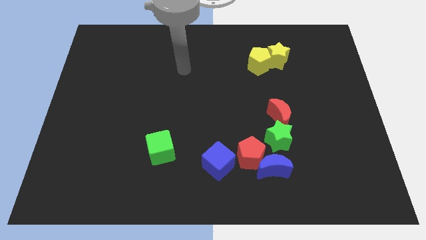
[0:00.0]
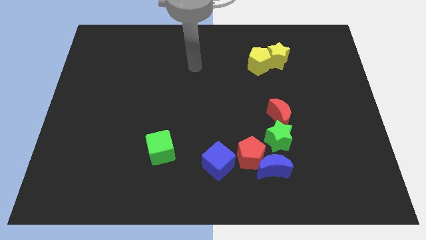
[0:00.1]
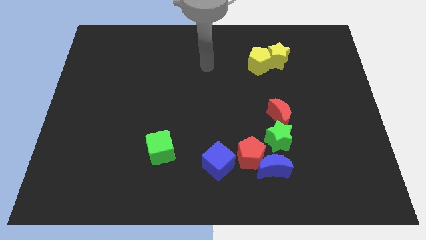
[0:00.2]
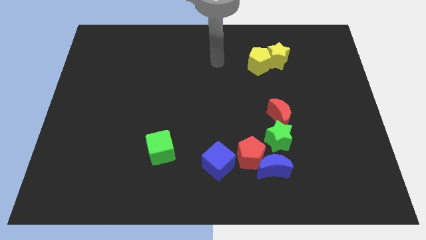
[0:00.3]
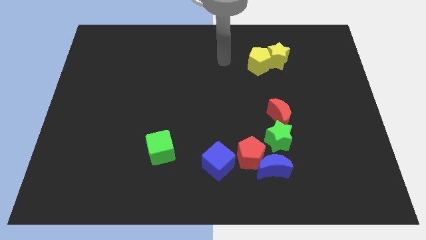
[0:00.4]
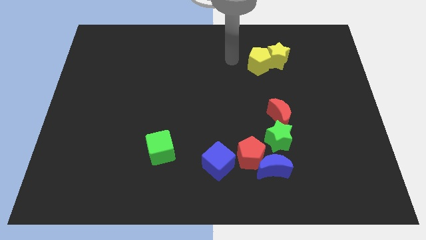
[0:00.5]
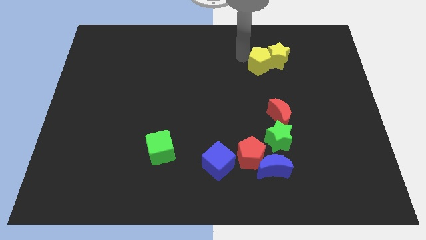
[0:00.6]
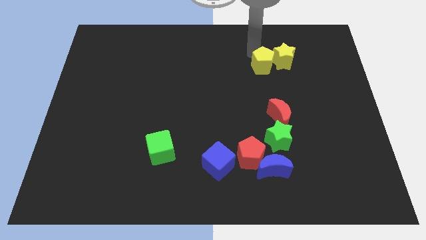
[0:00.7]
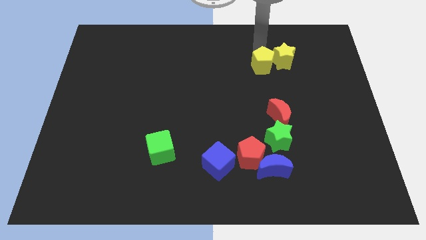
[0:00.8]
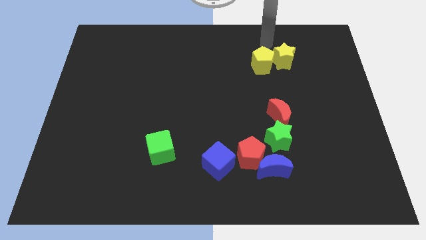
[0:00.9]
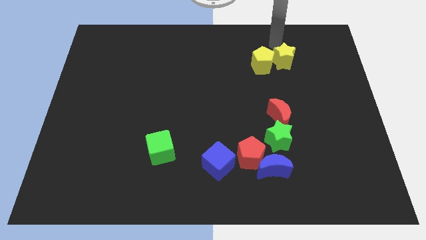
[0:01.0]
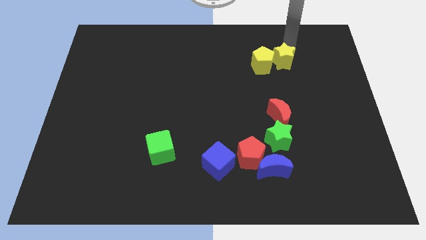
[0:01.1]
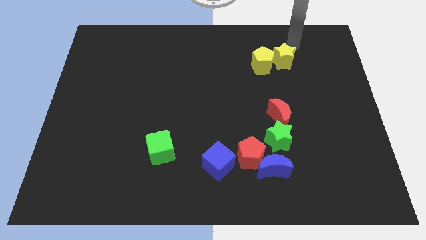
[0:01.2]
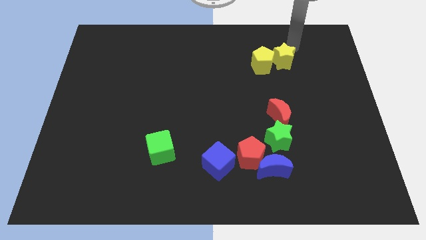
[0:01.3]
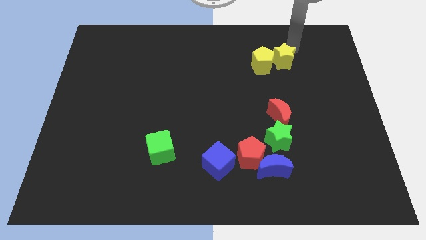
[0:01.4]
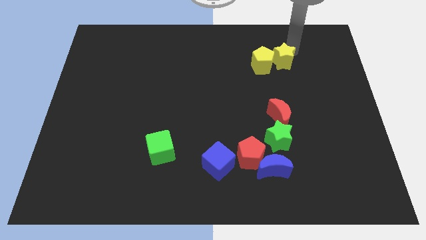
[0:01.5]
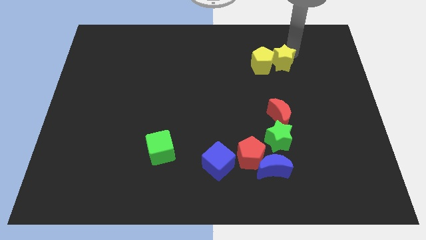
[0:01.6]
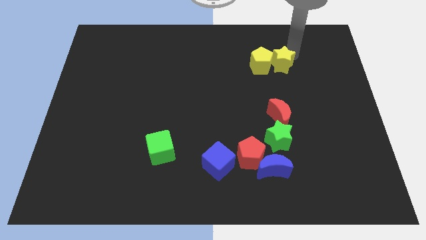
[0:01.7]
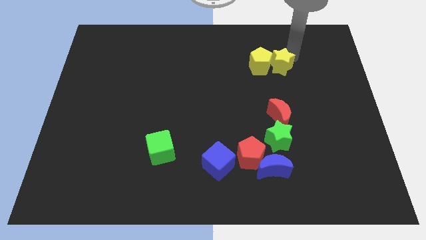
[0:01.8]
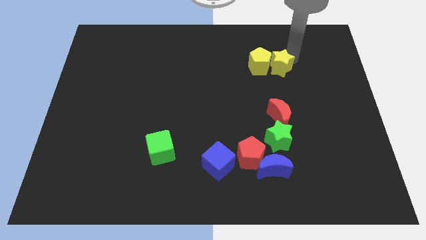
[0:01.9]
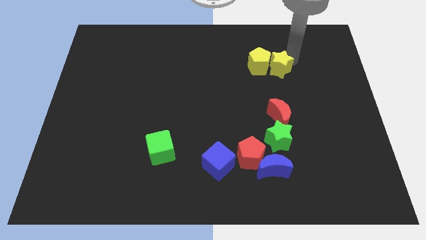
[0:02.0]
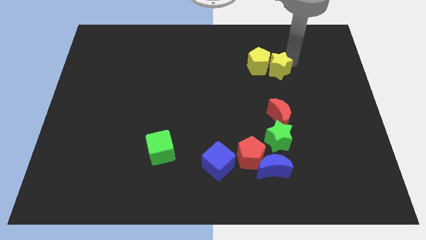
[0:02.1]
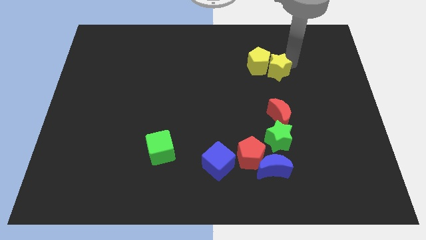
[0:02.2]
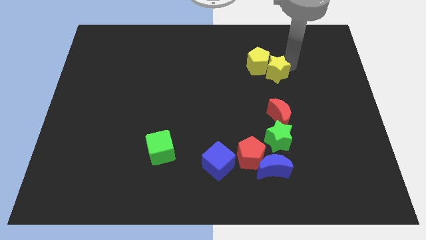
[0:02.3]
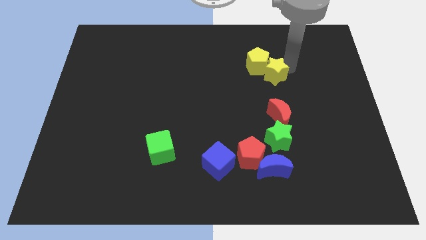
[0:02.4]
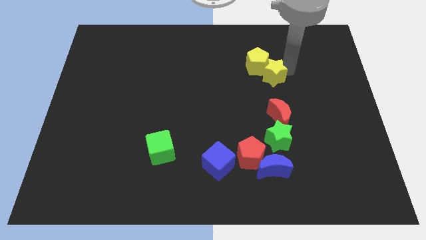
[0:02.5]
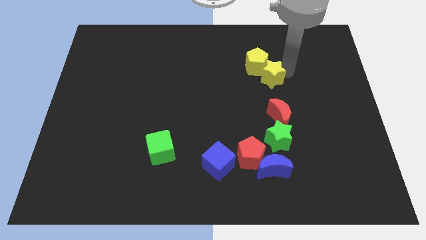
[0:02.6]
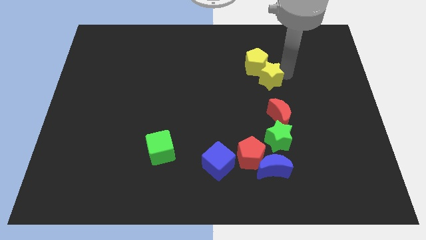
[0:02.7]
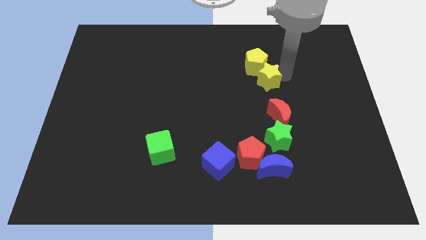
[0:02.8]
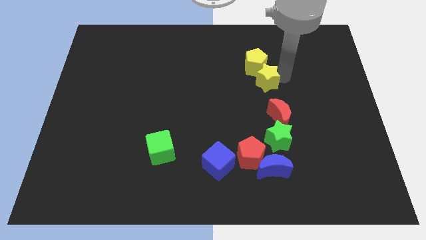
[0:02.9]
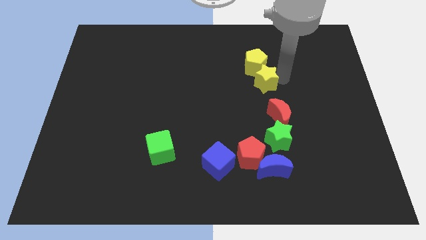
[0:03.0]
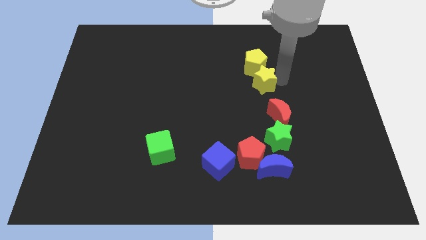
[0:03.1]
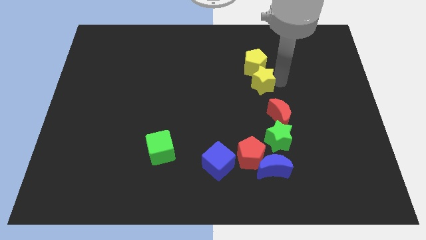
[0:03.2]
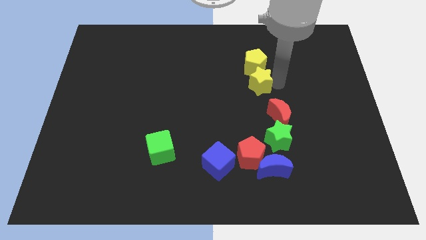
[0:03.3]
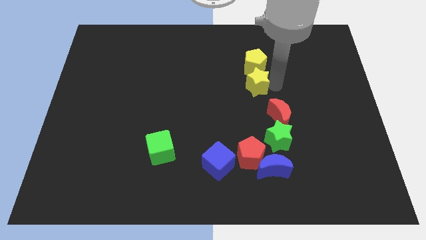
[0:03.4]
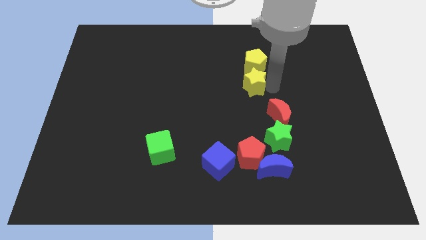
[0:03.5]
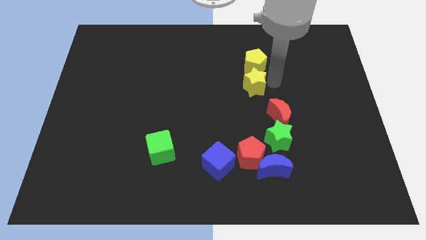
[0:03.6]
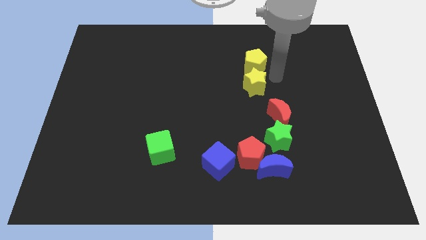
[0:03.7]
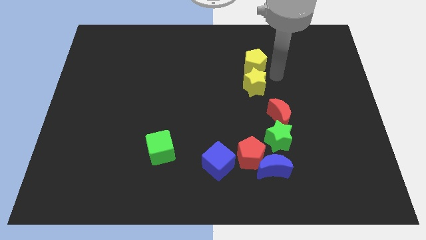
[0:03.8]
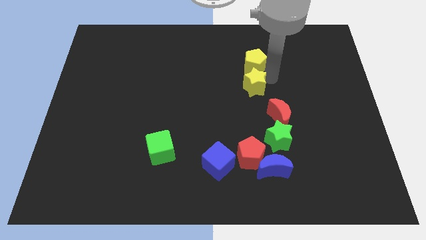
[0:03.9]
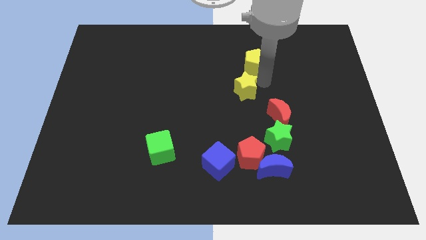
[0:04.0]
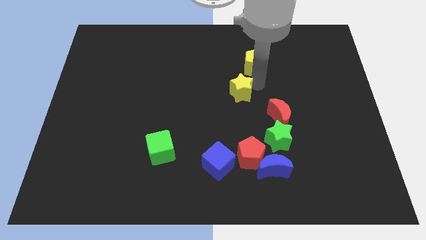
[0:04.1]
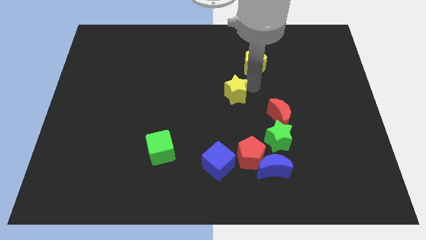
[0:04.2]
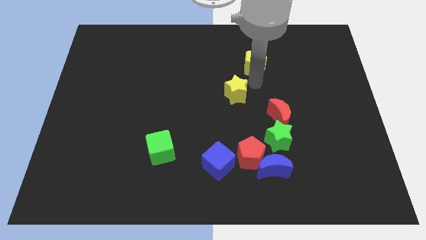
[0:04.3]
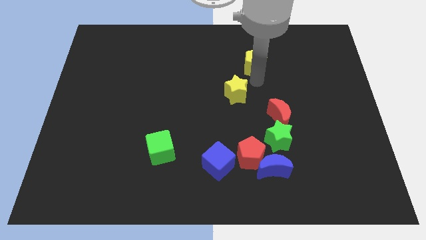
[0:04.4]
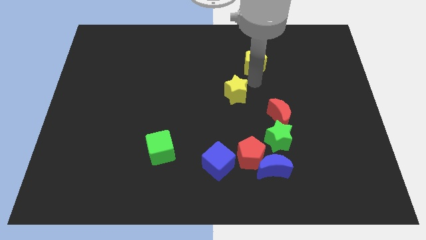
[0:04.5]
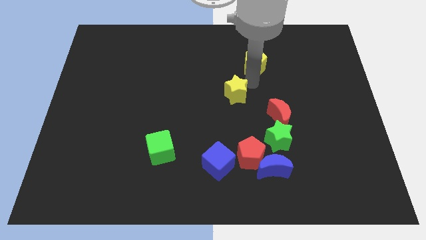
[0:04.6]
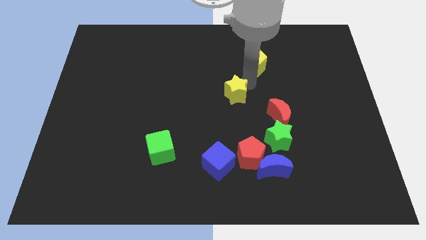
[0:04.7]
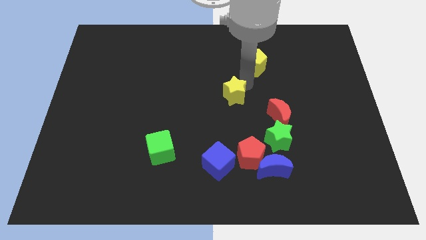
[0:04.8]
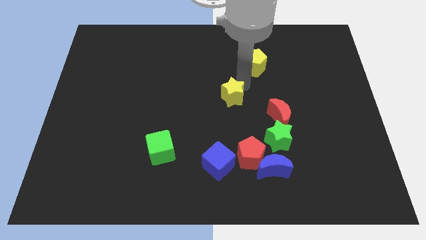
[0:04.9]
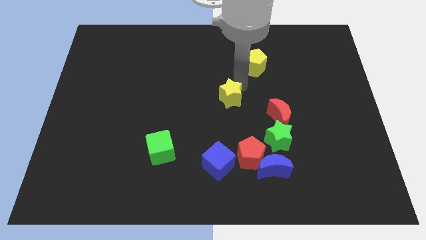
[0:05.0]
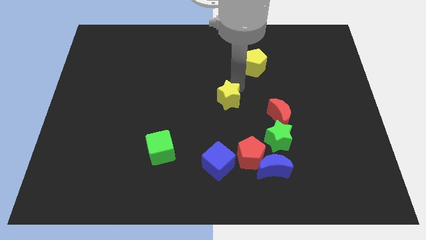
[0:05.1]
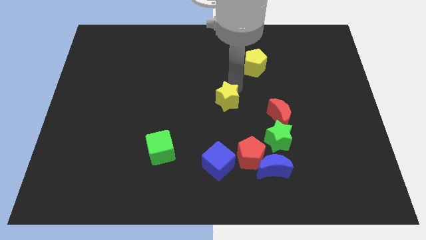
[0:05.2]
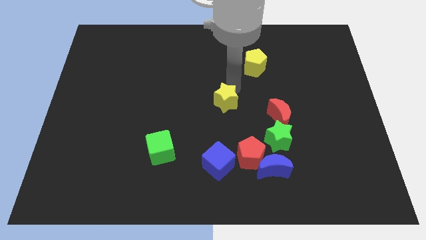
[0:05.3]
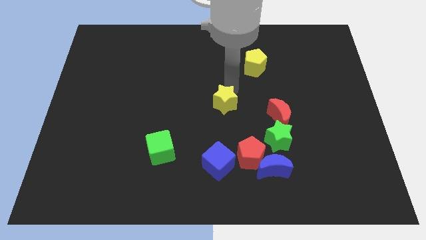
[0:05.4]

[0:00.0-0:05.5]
move the yellow star down and left

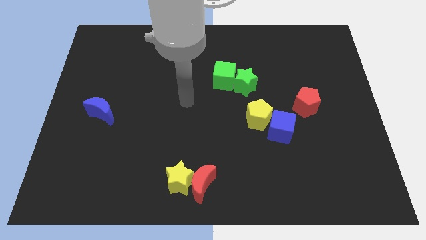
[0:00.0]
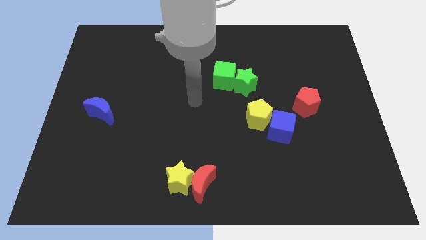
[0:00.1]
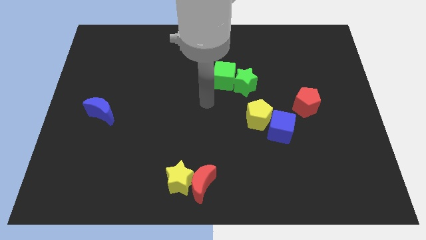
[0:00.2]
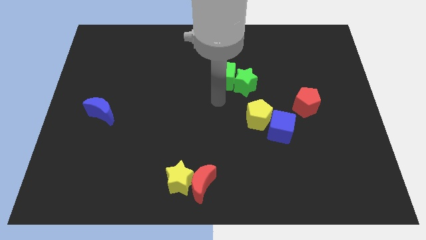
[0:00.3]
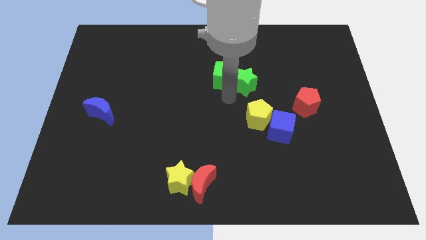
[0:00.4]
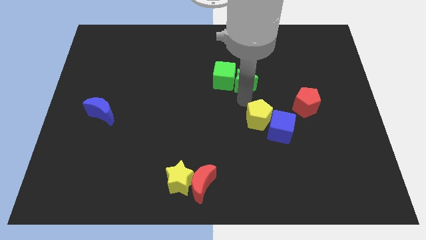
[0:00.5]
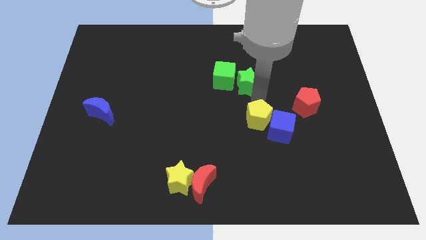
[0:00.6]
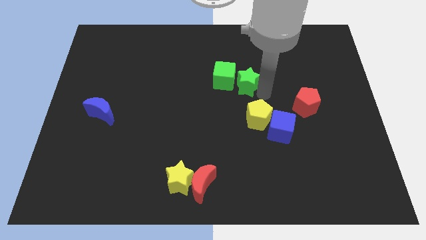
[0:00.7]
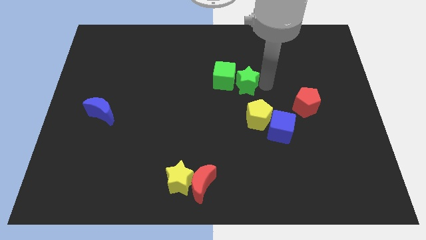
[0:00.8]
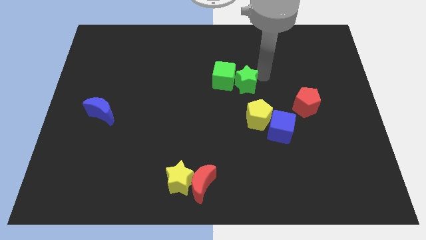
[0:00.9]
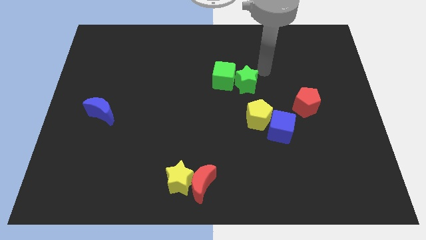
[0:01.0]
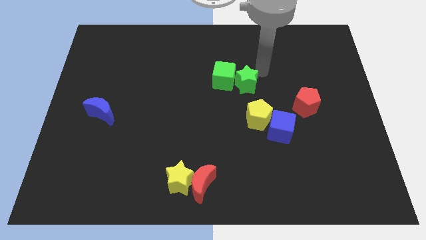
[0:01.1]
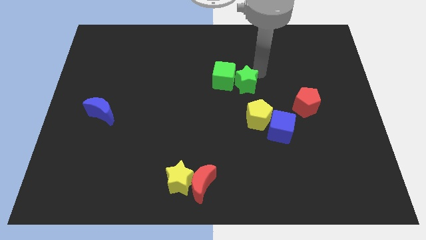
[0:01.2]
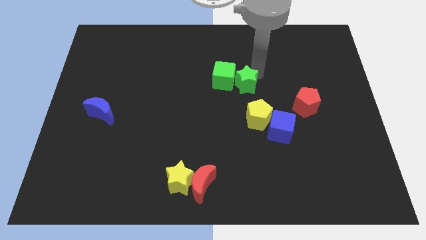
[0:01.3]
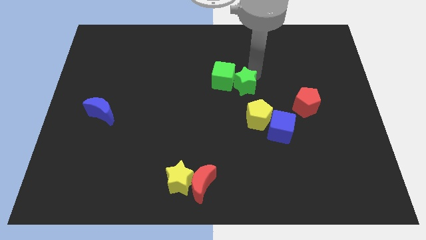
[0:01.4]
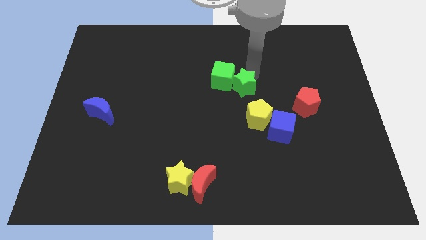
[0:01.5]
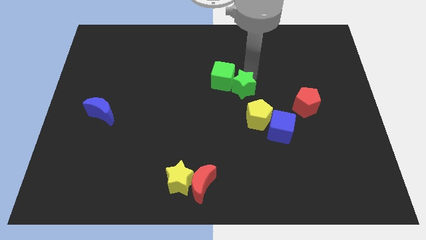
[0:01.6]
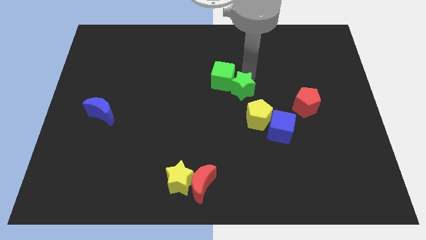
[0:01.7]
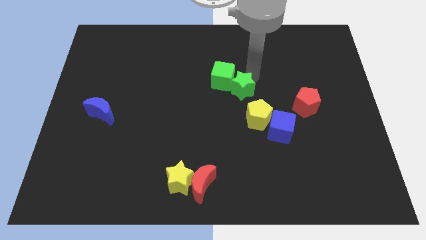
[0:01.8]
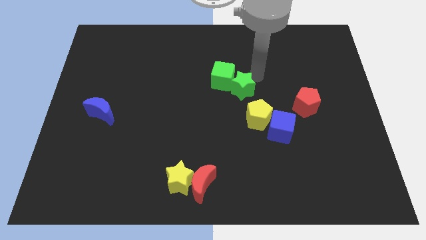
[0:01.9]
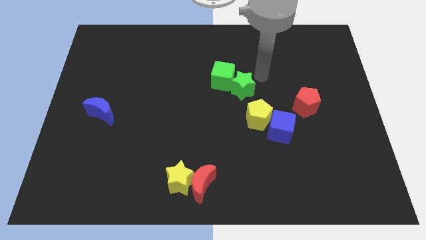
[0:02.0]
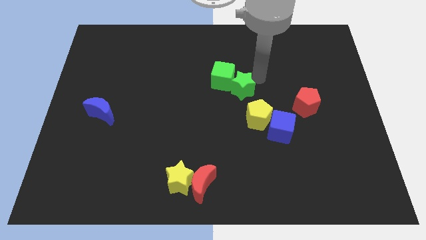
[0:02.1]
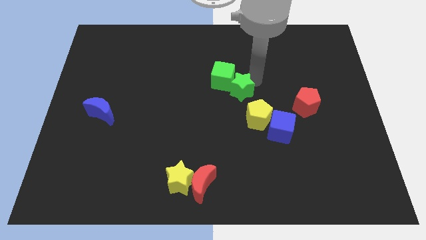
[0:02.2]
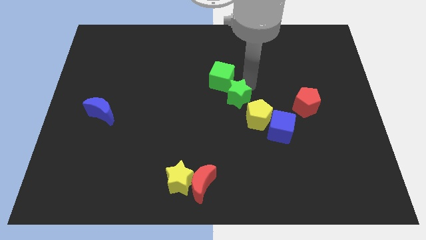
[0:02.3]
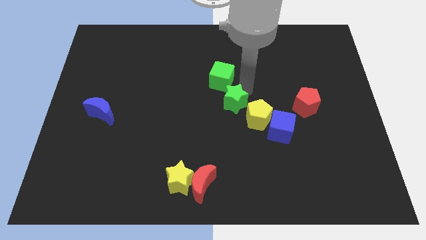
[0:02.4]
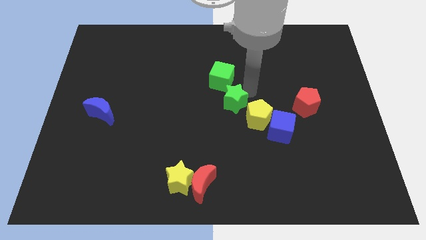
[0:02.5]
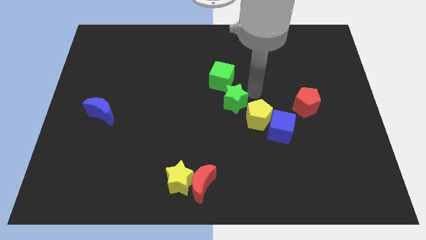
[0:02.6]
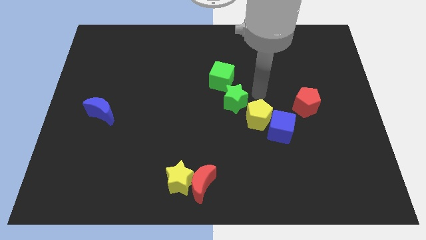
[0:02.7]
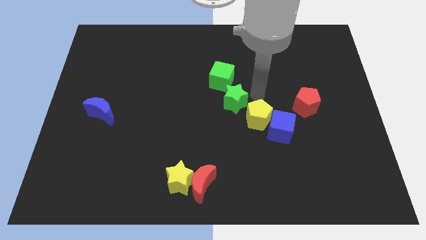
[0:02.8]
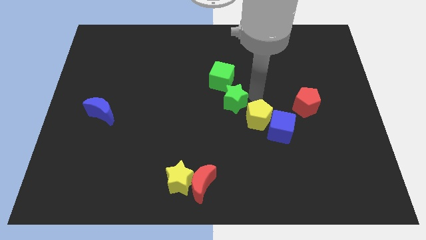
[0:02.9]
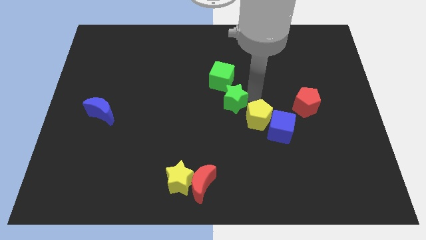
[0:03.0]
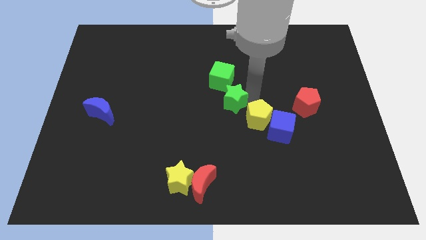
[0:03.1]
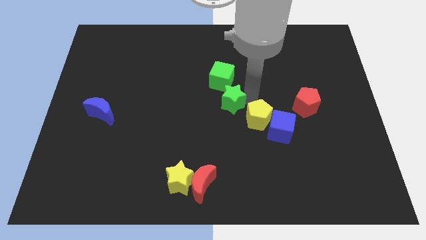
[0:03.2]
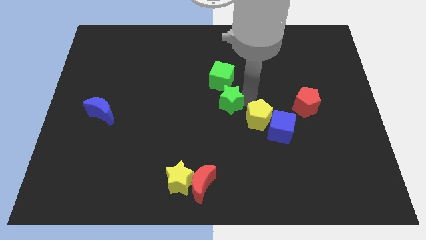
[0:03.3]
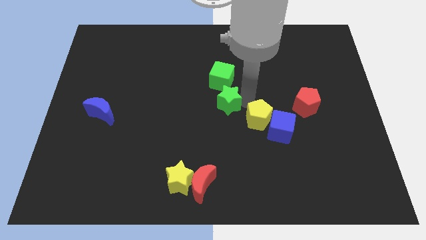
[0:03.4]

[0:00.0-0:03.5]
push the green star a bit down and then left
